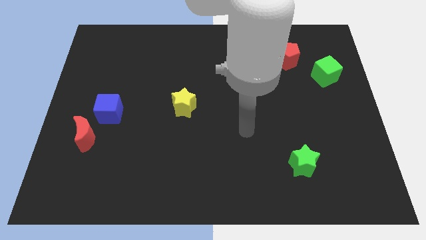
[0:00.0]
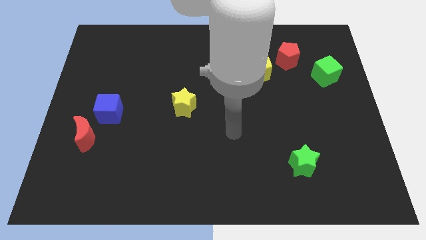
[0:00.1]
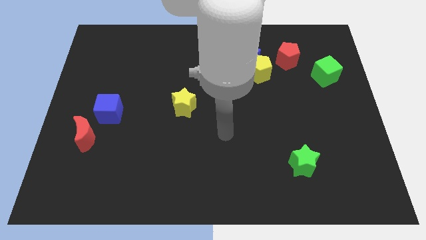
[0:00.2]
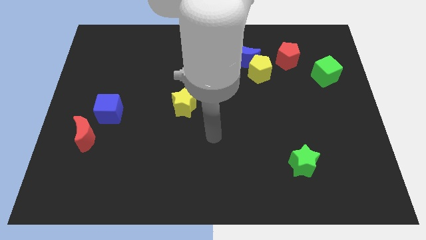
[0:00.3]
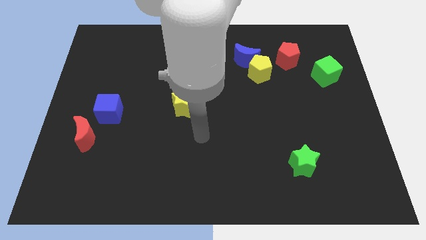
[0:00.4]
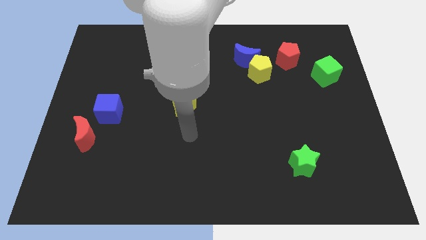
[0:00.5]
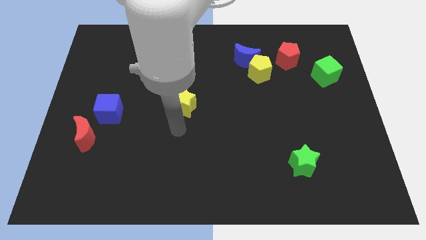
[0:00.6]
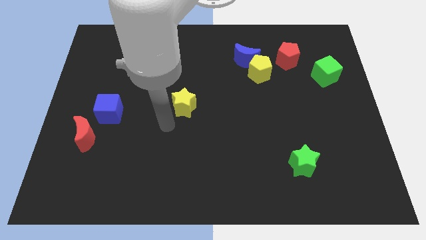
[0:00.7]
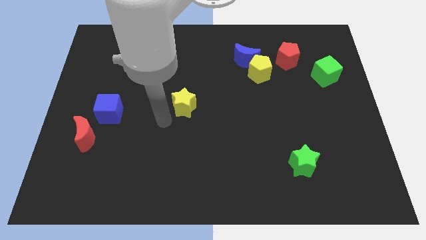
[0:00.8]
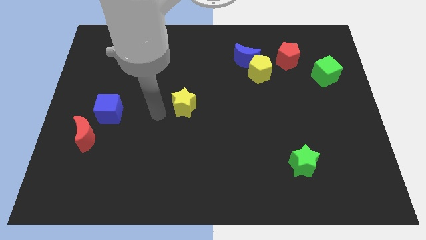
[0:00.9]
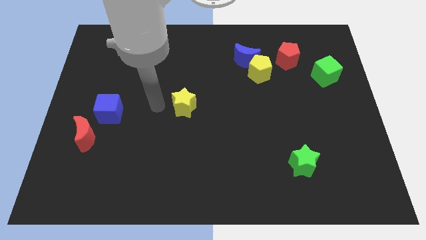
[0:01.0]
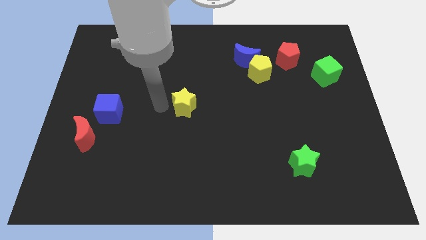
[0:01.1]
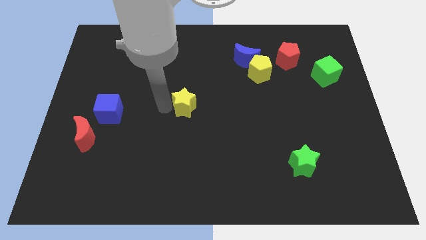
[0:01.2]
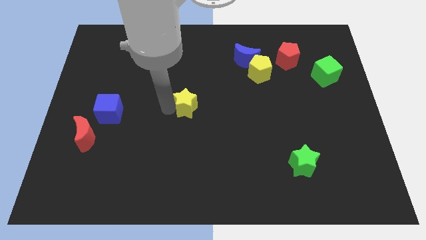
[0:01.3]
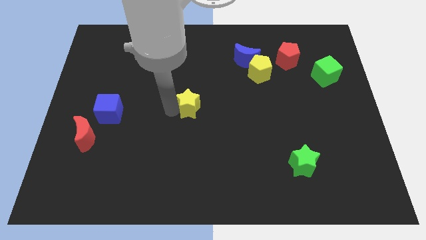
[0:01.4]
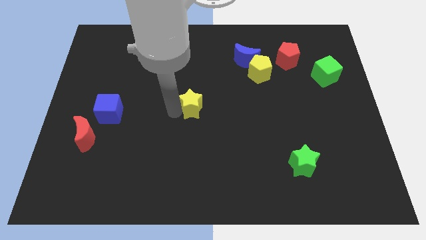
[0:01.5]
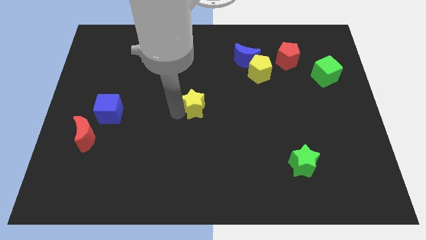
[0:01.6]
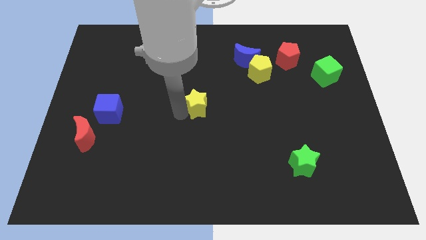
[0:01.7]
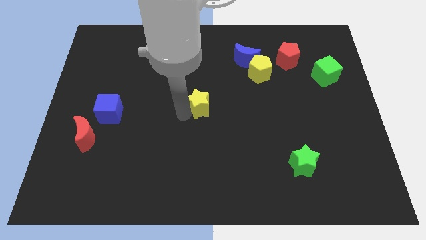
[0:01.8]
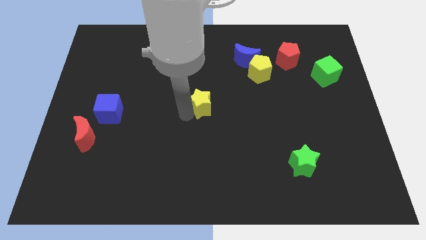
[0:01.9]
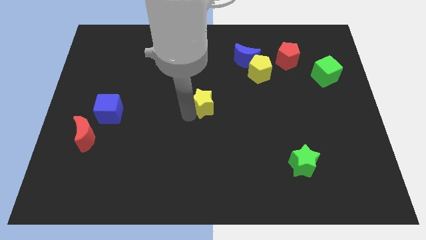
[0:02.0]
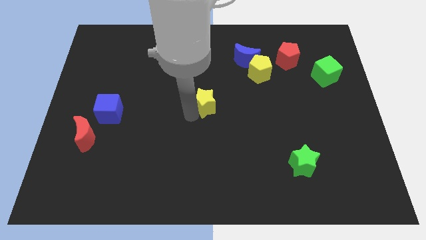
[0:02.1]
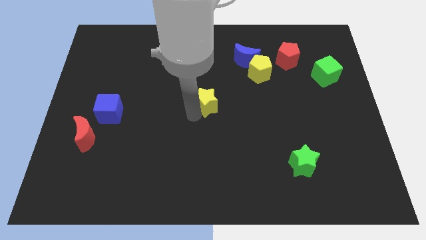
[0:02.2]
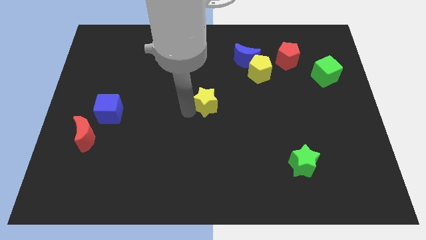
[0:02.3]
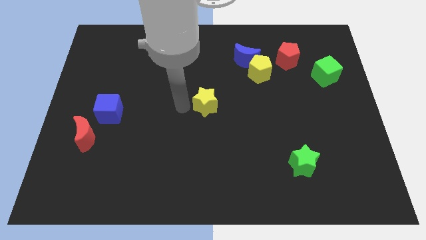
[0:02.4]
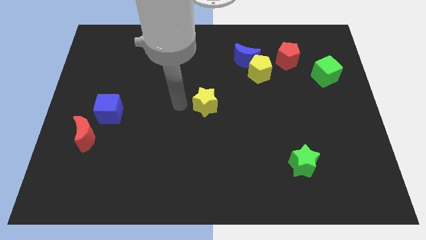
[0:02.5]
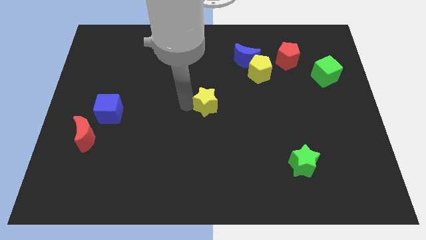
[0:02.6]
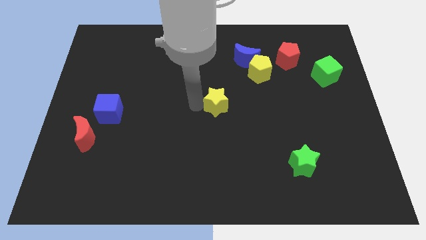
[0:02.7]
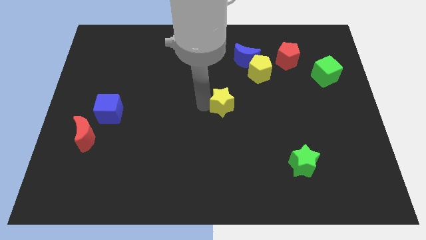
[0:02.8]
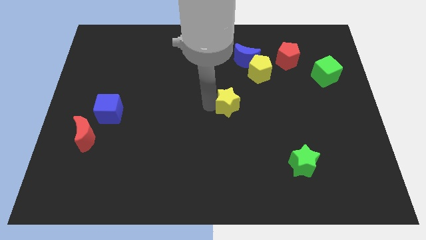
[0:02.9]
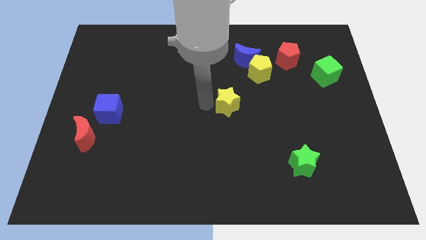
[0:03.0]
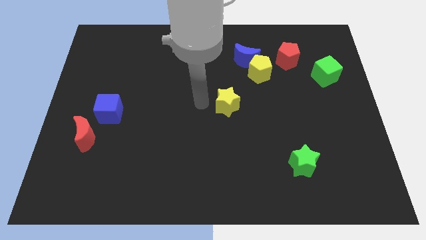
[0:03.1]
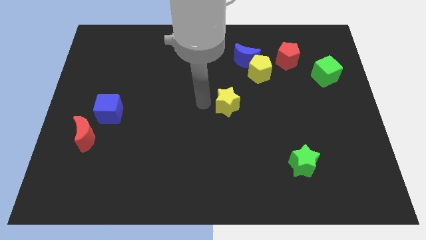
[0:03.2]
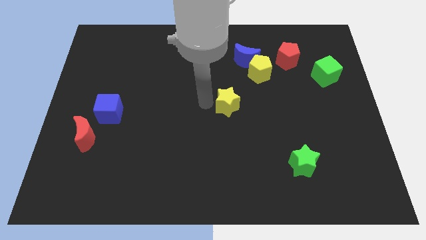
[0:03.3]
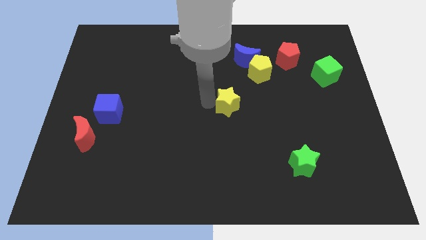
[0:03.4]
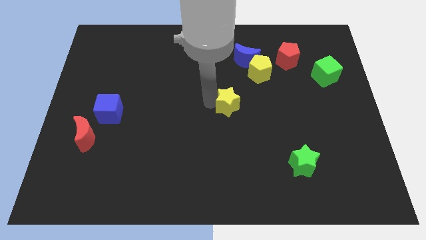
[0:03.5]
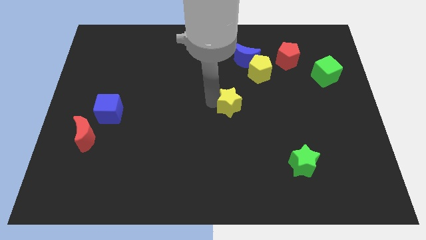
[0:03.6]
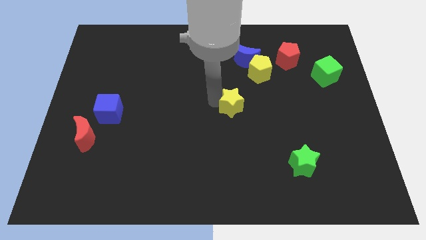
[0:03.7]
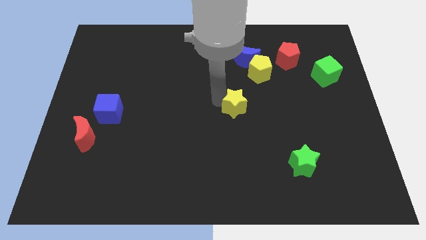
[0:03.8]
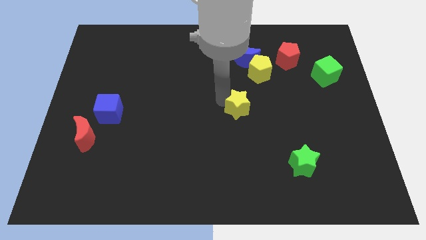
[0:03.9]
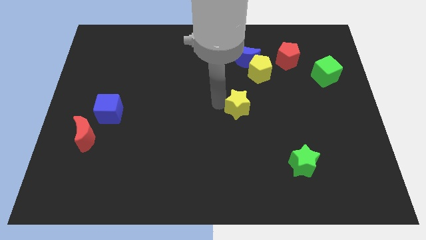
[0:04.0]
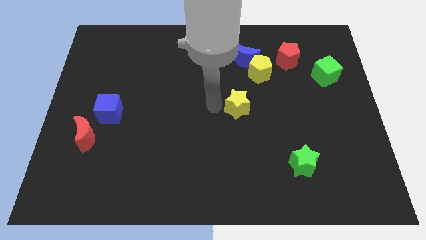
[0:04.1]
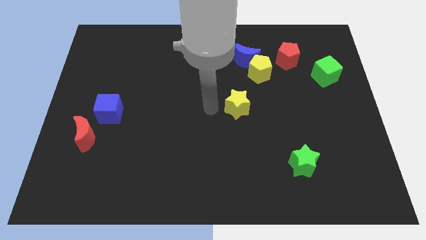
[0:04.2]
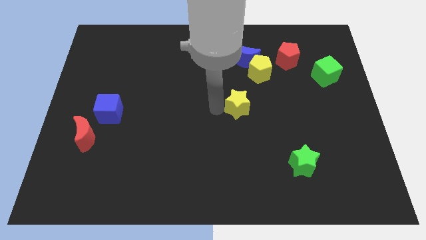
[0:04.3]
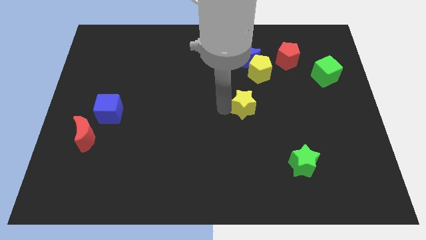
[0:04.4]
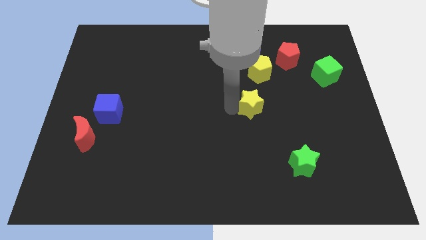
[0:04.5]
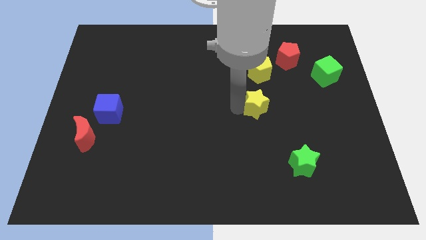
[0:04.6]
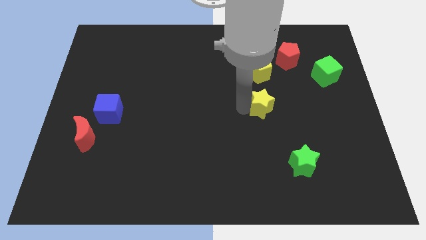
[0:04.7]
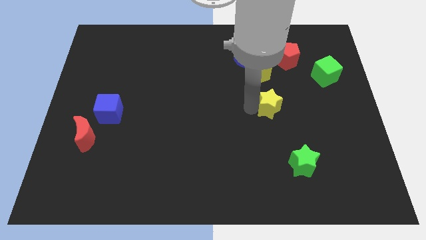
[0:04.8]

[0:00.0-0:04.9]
push the yellow star to the right

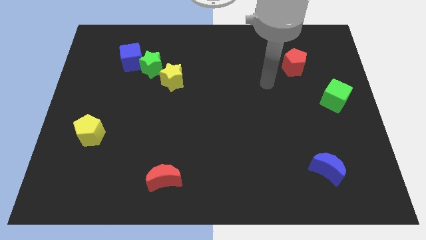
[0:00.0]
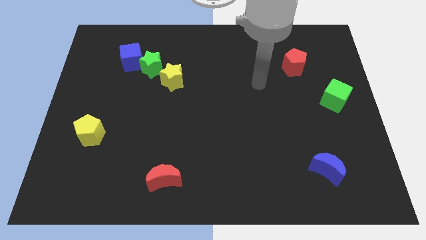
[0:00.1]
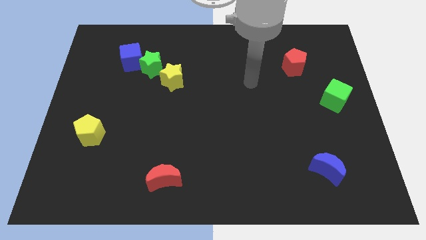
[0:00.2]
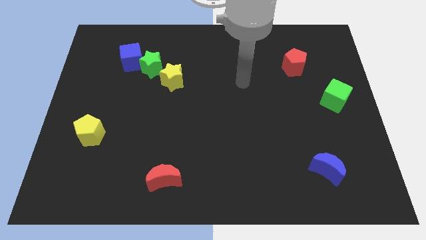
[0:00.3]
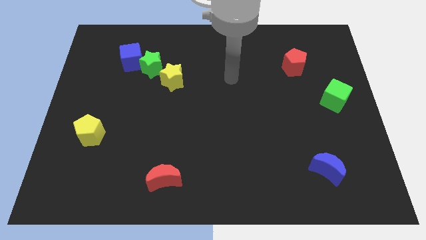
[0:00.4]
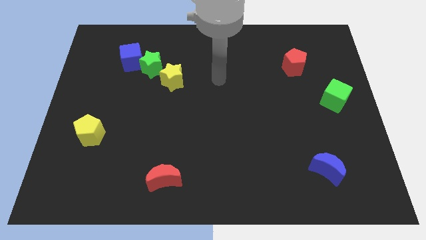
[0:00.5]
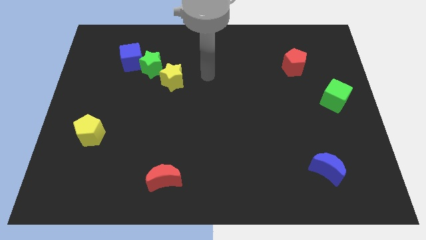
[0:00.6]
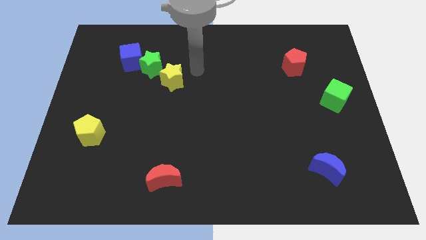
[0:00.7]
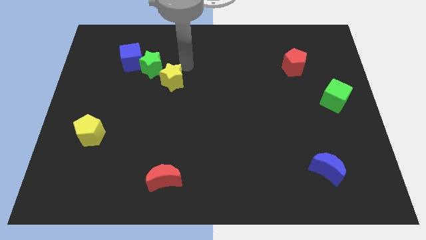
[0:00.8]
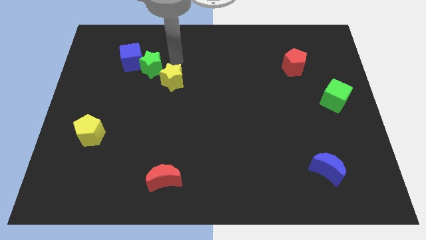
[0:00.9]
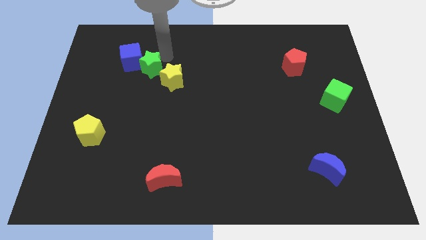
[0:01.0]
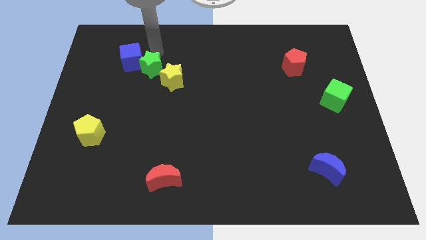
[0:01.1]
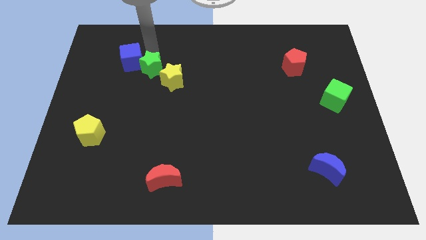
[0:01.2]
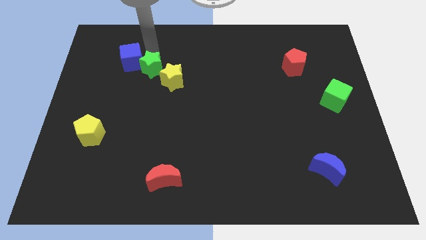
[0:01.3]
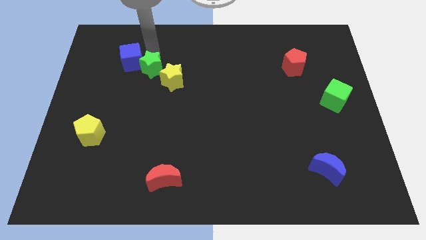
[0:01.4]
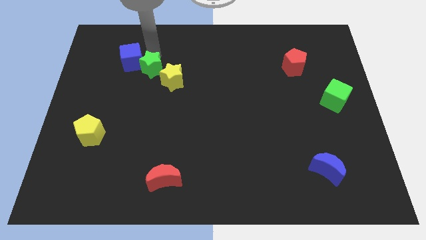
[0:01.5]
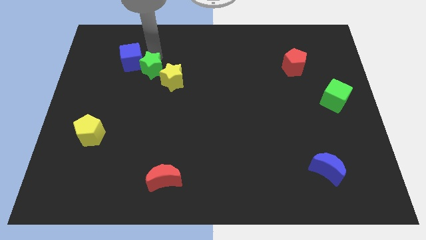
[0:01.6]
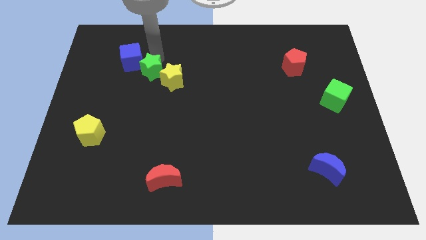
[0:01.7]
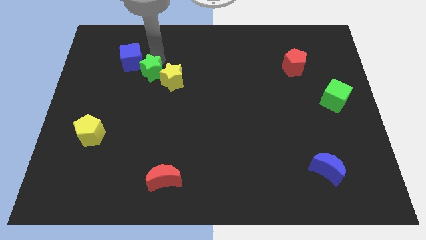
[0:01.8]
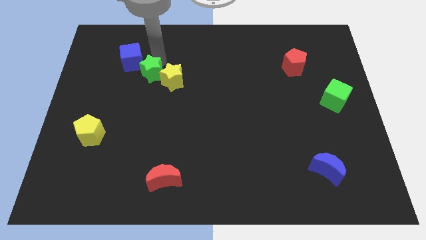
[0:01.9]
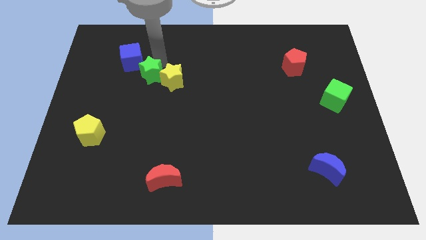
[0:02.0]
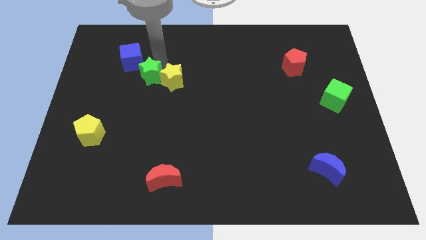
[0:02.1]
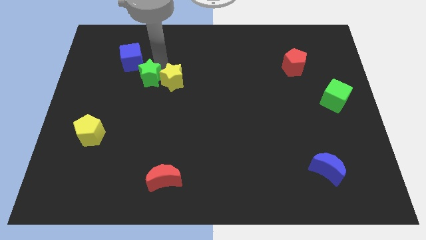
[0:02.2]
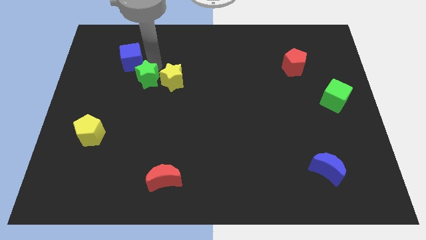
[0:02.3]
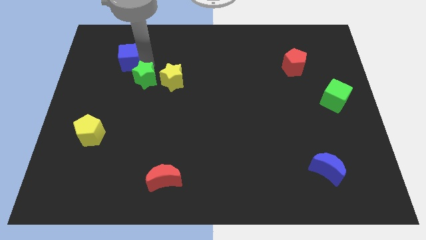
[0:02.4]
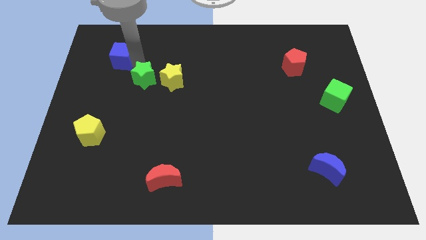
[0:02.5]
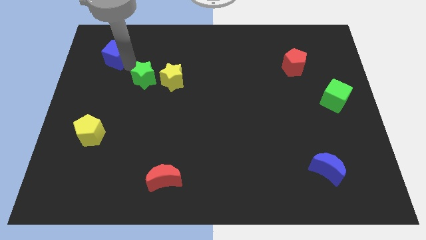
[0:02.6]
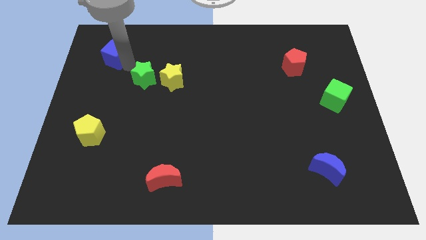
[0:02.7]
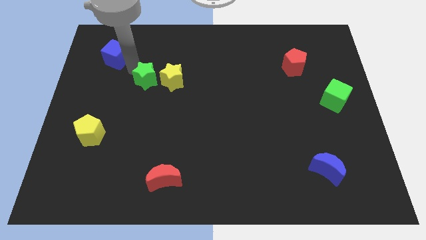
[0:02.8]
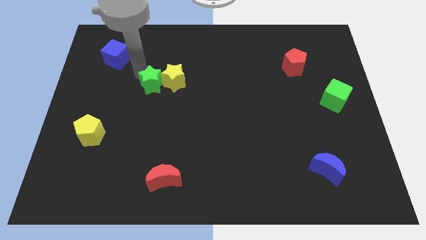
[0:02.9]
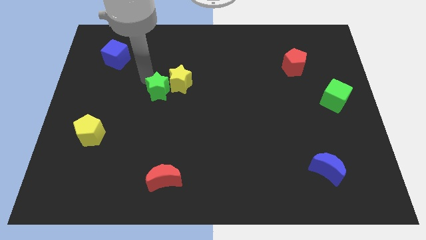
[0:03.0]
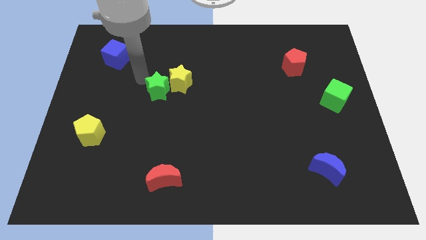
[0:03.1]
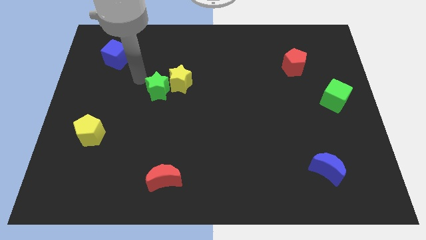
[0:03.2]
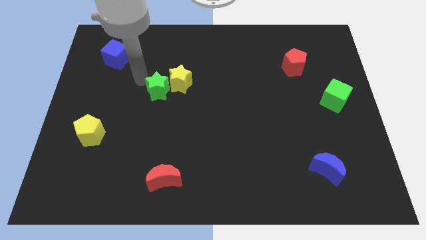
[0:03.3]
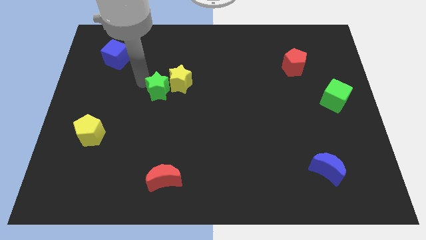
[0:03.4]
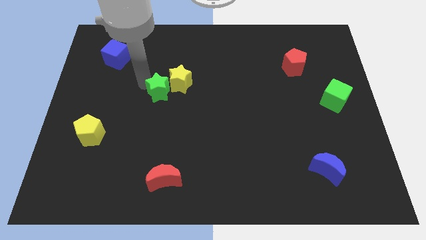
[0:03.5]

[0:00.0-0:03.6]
move the green star slightly down and right diagonally
